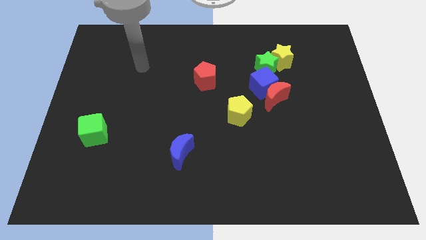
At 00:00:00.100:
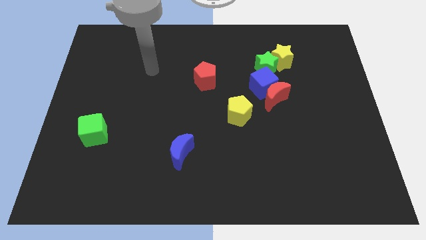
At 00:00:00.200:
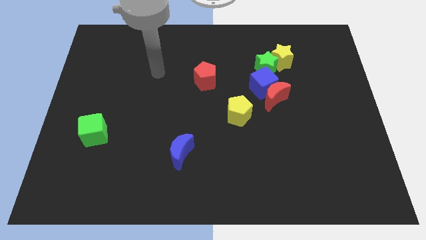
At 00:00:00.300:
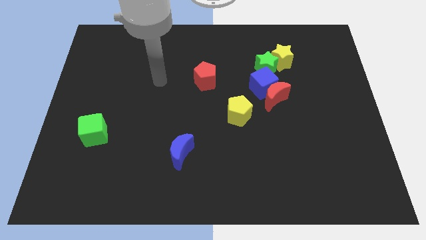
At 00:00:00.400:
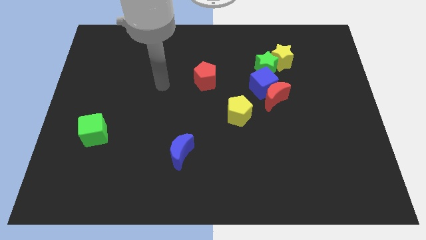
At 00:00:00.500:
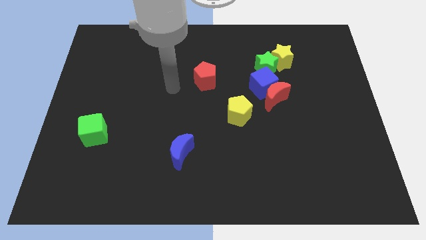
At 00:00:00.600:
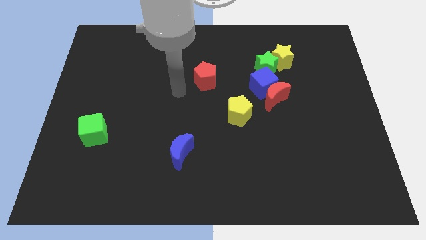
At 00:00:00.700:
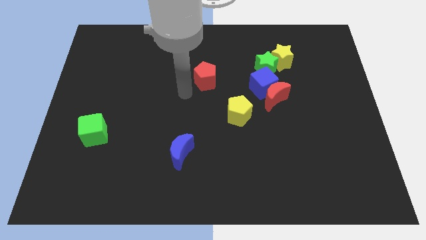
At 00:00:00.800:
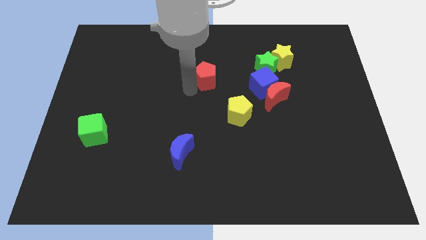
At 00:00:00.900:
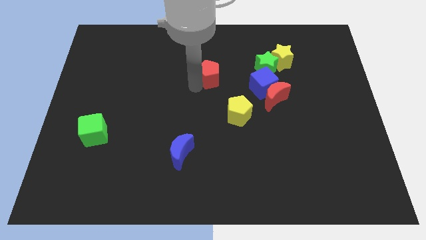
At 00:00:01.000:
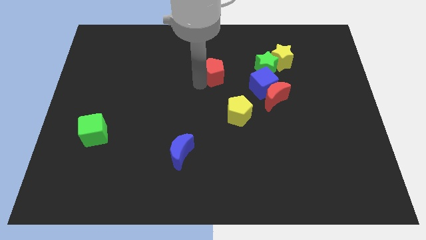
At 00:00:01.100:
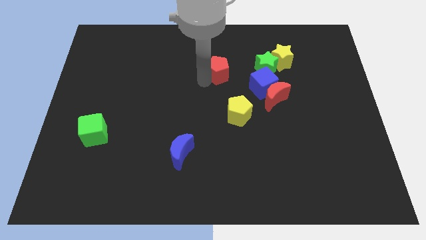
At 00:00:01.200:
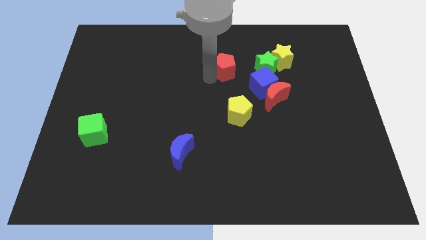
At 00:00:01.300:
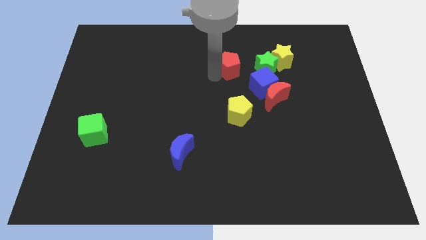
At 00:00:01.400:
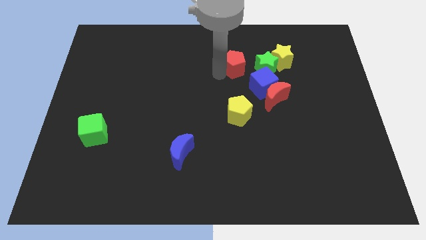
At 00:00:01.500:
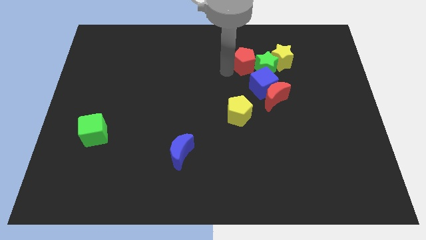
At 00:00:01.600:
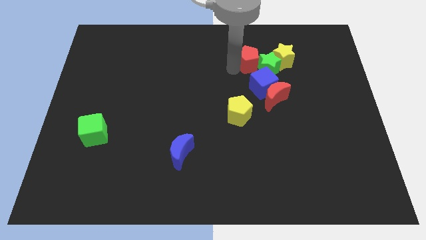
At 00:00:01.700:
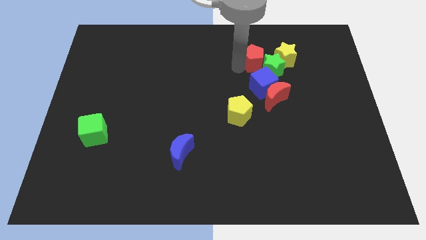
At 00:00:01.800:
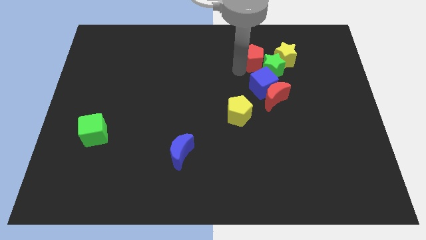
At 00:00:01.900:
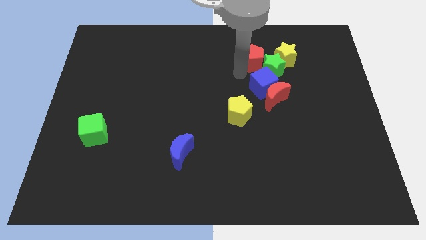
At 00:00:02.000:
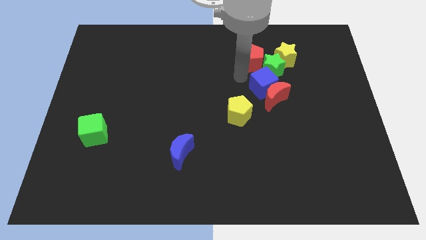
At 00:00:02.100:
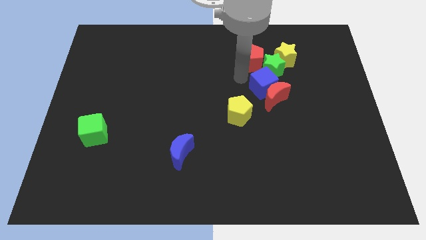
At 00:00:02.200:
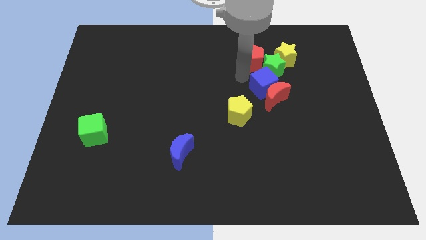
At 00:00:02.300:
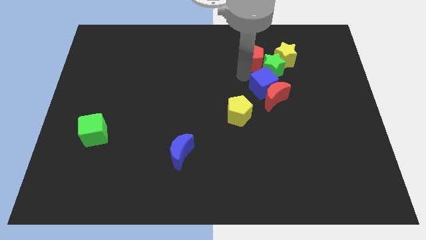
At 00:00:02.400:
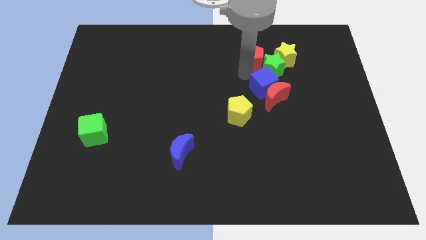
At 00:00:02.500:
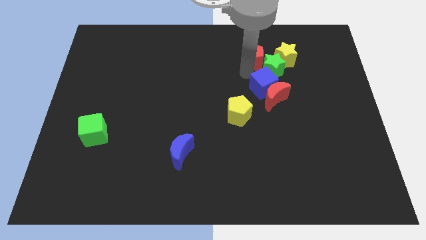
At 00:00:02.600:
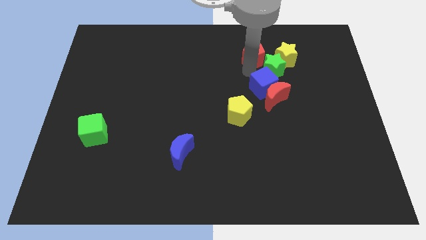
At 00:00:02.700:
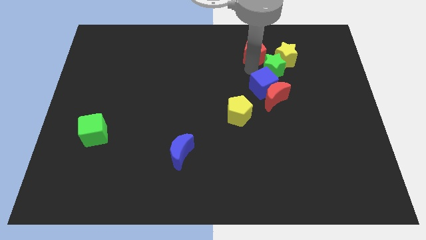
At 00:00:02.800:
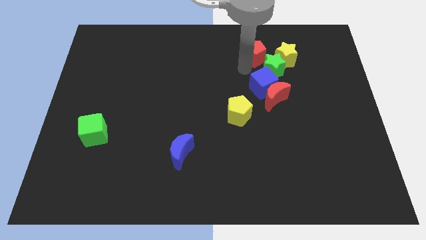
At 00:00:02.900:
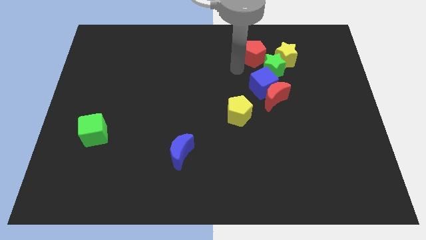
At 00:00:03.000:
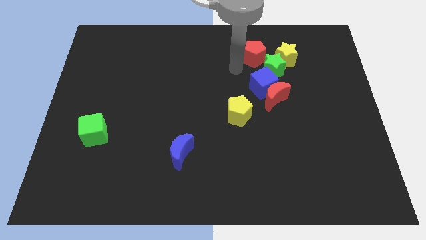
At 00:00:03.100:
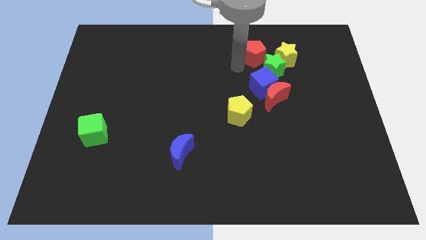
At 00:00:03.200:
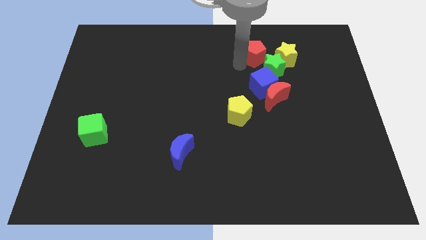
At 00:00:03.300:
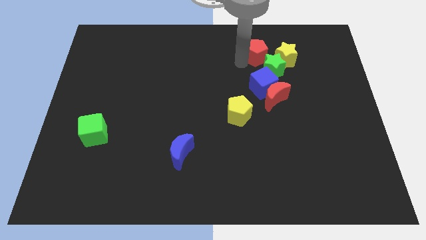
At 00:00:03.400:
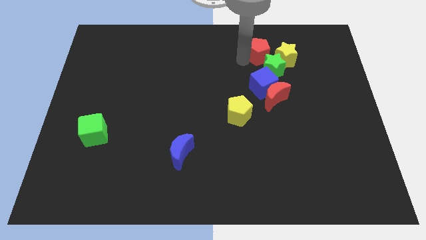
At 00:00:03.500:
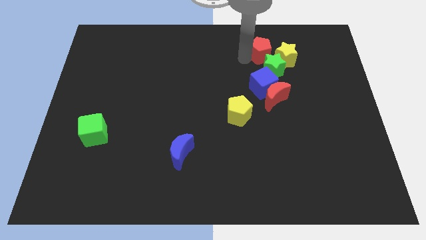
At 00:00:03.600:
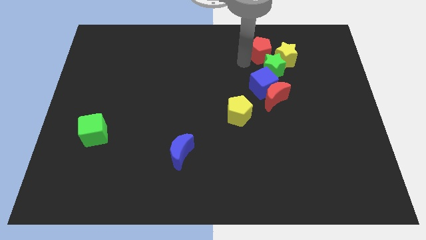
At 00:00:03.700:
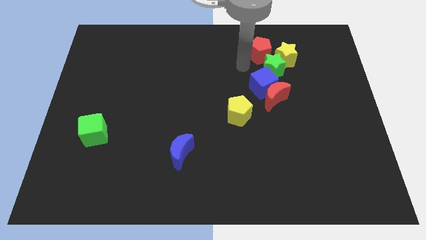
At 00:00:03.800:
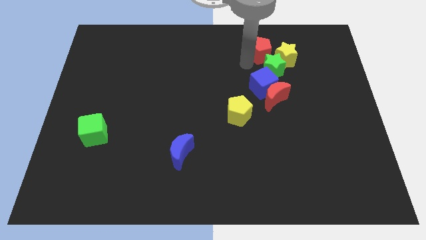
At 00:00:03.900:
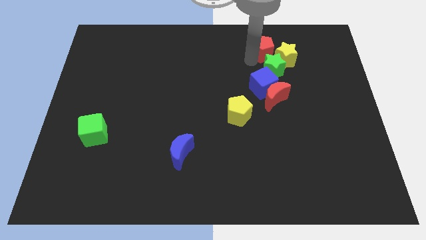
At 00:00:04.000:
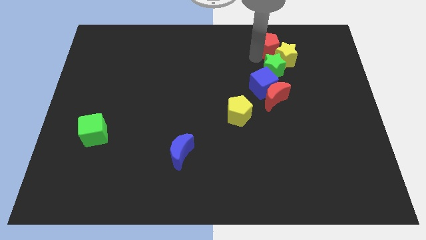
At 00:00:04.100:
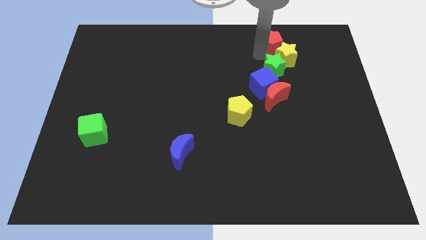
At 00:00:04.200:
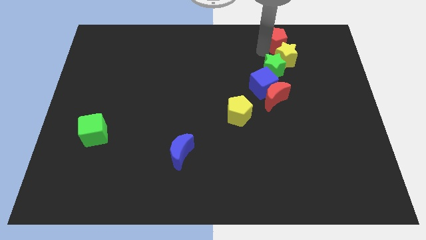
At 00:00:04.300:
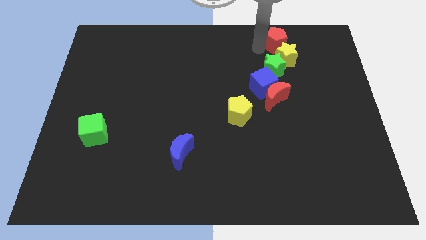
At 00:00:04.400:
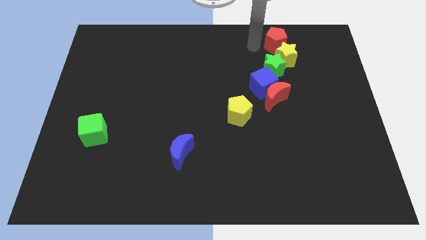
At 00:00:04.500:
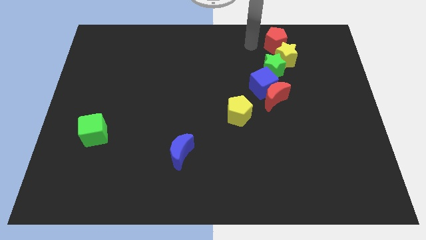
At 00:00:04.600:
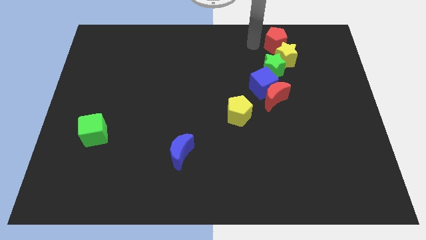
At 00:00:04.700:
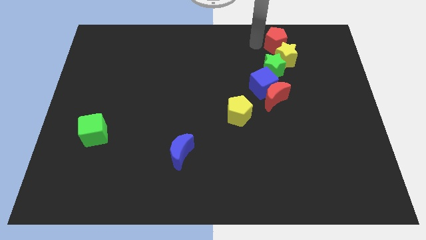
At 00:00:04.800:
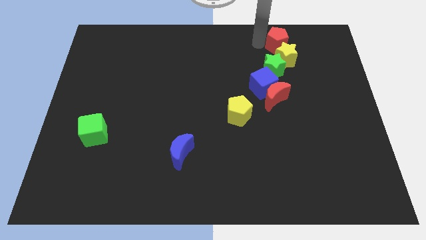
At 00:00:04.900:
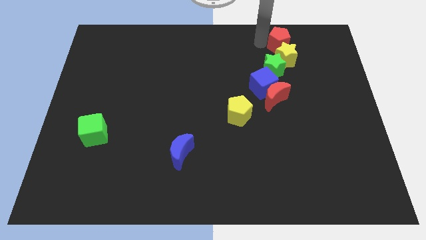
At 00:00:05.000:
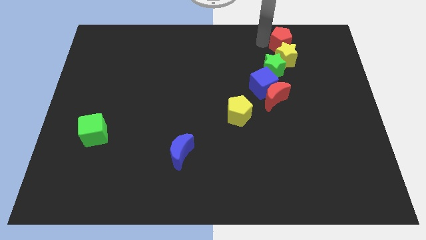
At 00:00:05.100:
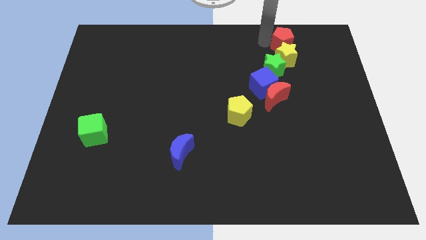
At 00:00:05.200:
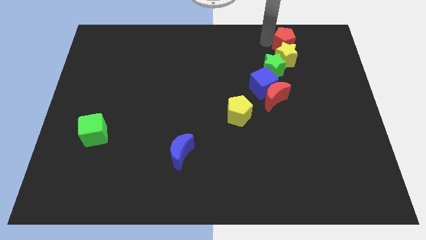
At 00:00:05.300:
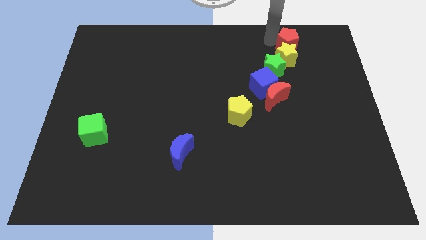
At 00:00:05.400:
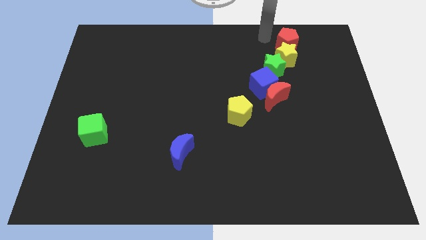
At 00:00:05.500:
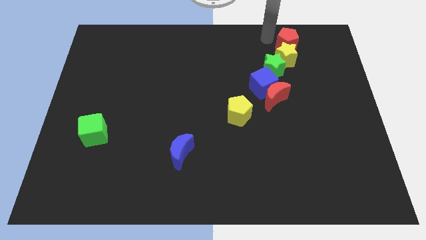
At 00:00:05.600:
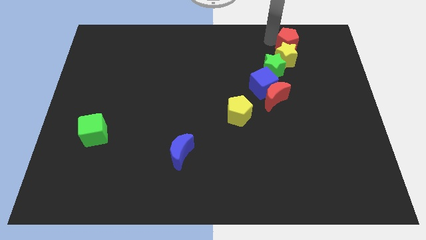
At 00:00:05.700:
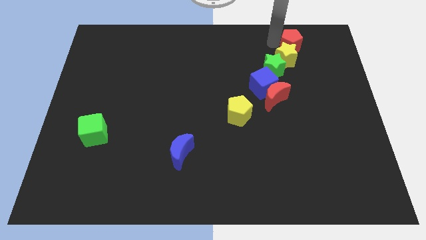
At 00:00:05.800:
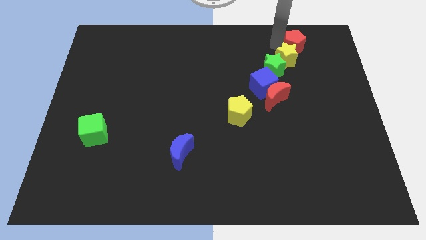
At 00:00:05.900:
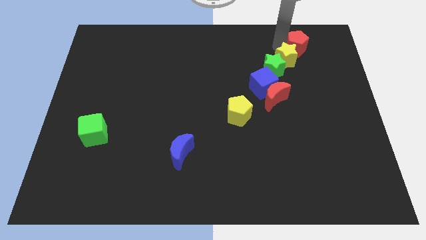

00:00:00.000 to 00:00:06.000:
put the red pentagon just right of the yellow star
